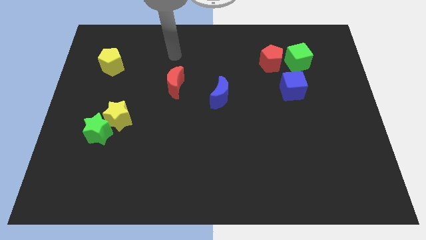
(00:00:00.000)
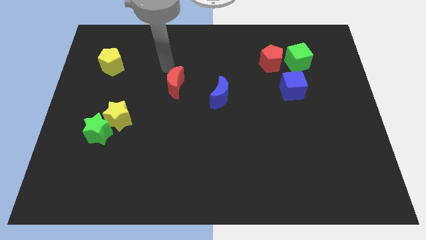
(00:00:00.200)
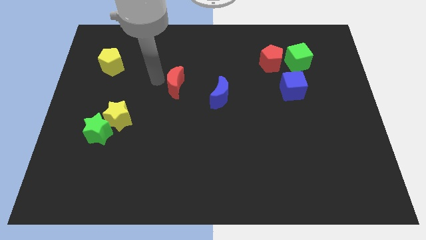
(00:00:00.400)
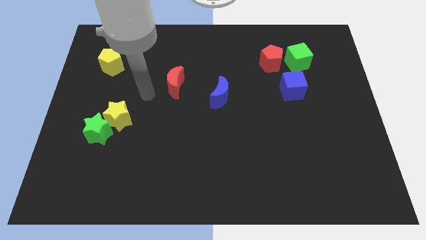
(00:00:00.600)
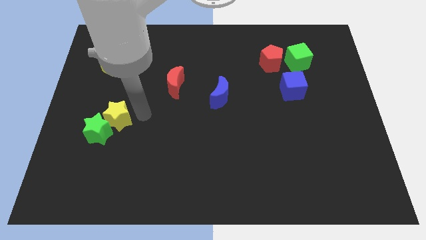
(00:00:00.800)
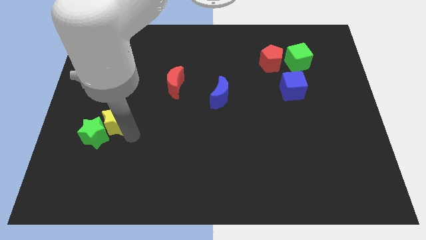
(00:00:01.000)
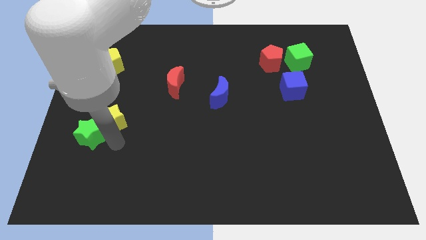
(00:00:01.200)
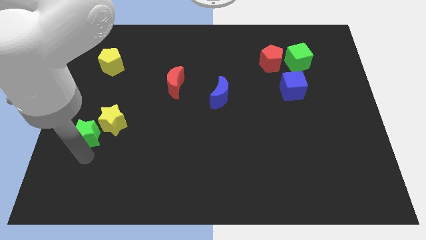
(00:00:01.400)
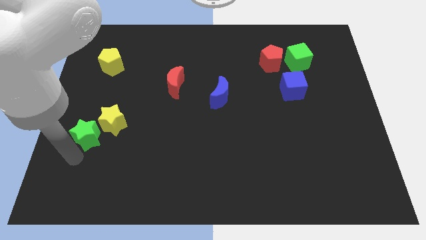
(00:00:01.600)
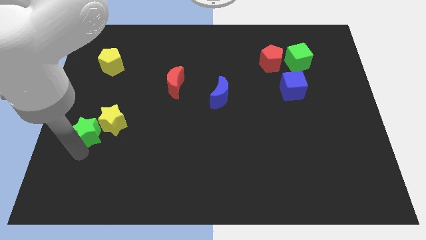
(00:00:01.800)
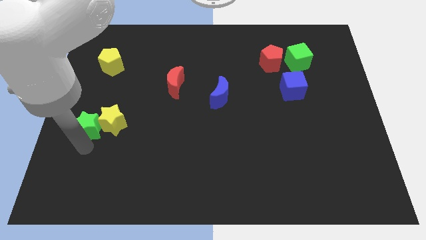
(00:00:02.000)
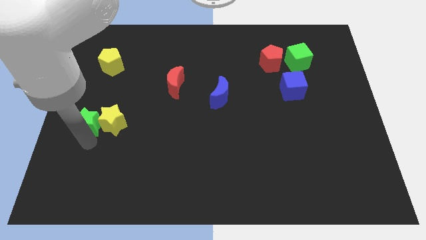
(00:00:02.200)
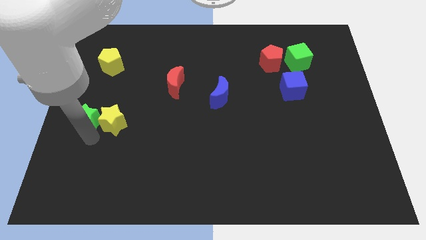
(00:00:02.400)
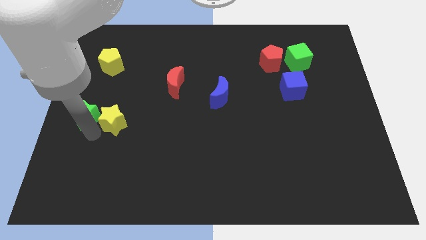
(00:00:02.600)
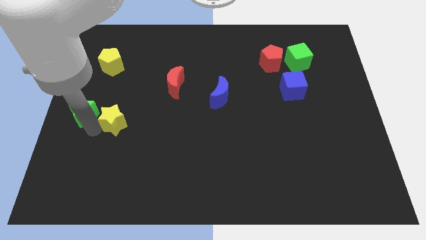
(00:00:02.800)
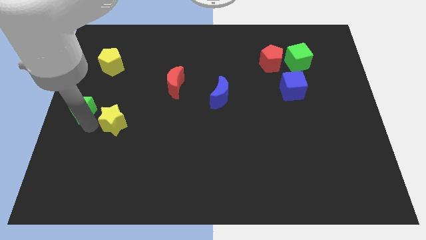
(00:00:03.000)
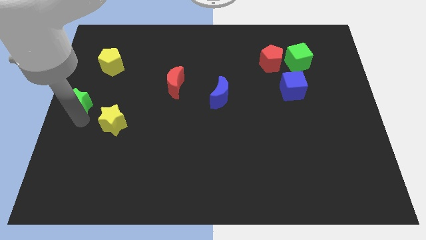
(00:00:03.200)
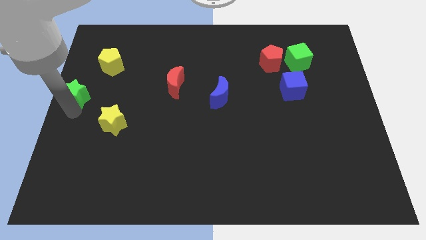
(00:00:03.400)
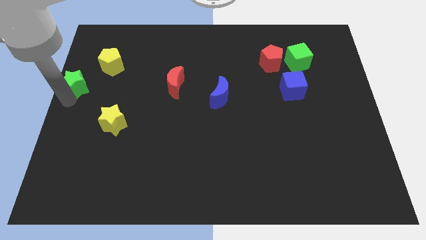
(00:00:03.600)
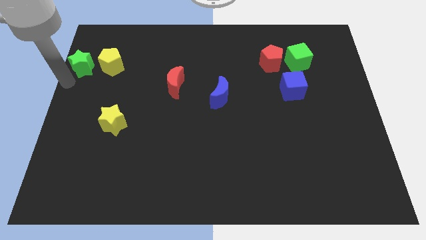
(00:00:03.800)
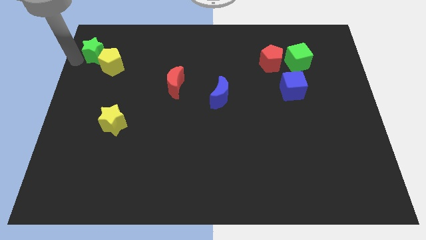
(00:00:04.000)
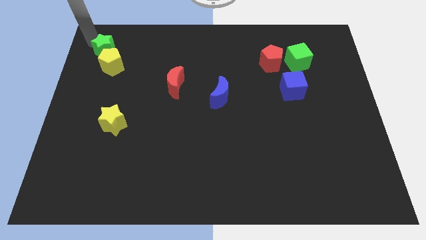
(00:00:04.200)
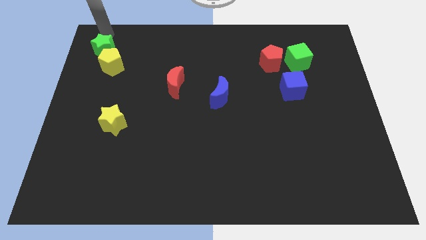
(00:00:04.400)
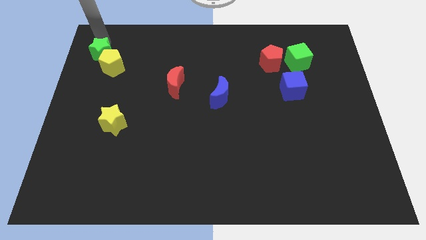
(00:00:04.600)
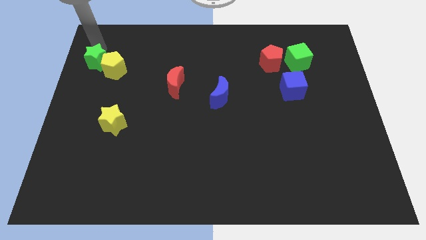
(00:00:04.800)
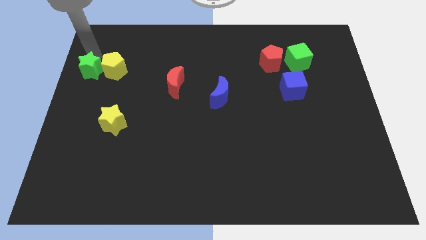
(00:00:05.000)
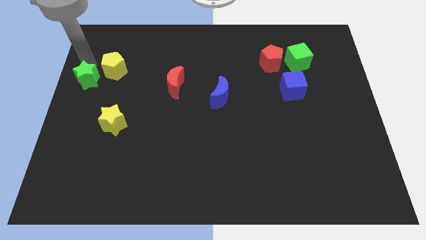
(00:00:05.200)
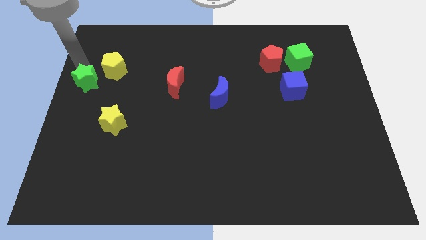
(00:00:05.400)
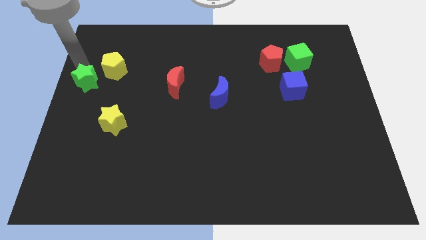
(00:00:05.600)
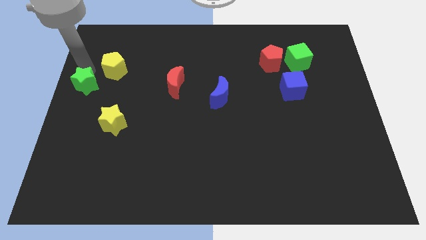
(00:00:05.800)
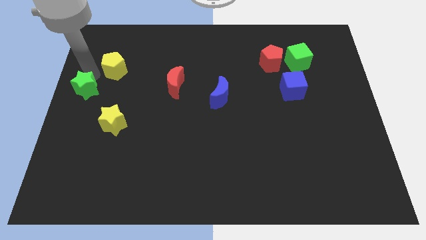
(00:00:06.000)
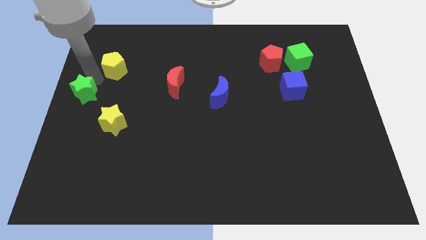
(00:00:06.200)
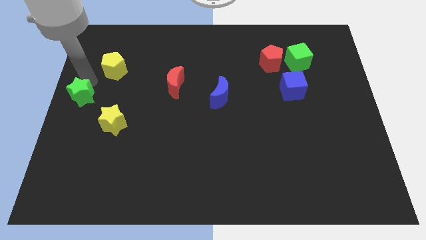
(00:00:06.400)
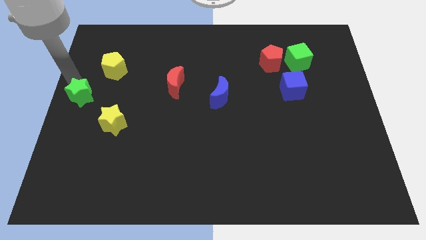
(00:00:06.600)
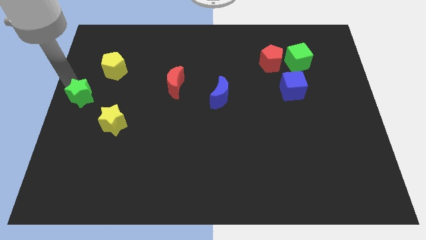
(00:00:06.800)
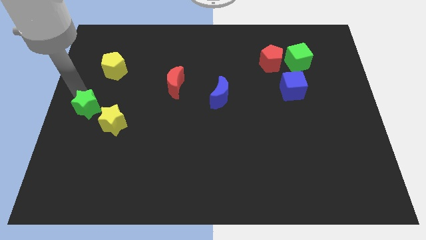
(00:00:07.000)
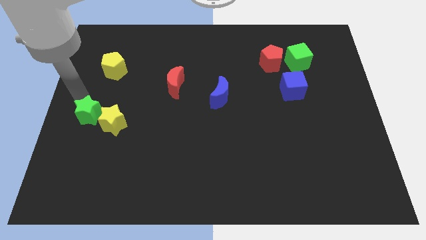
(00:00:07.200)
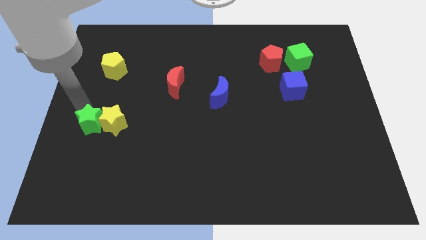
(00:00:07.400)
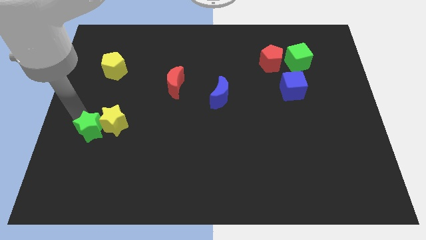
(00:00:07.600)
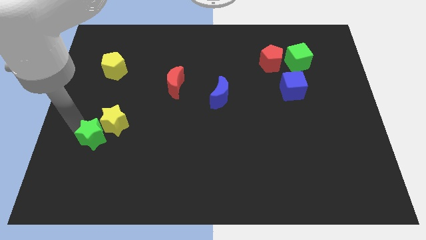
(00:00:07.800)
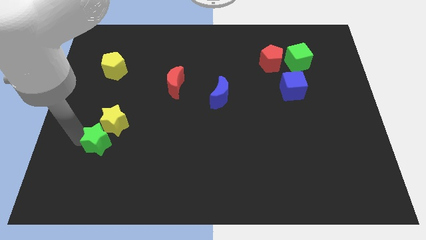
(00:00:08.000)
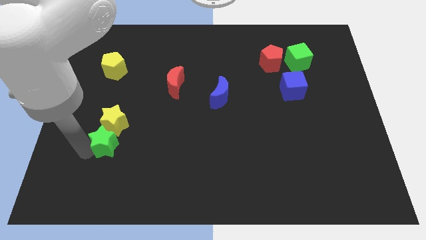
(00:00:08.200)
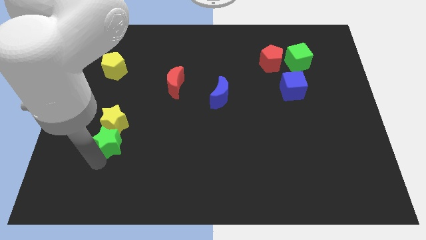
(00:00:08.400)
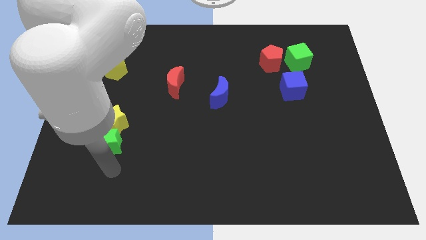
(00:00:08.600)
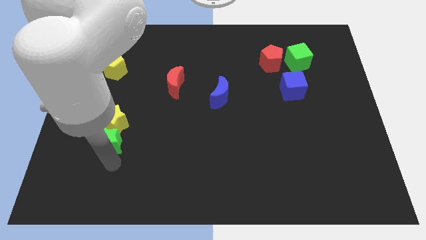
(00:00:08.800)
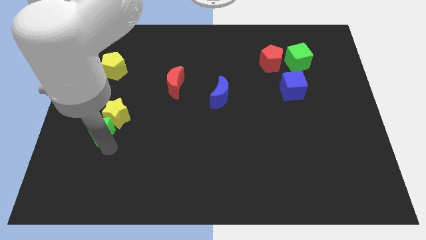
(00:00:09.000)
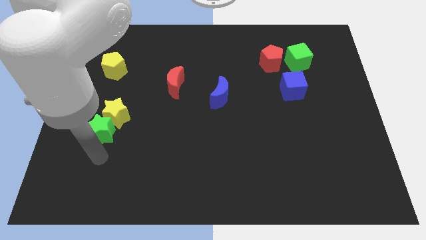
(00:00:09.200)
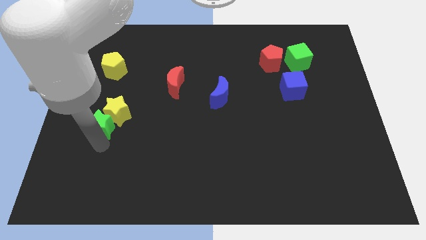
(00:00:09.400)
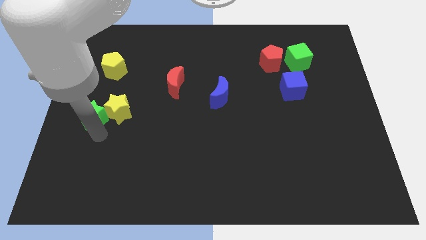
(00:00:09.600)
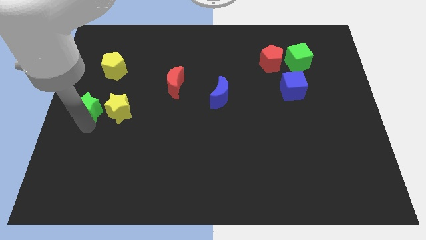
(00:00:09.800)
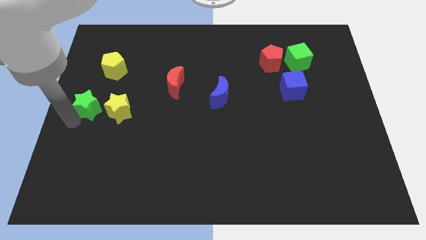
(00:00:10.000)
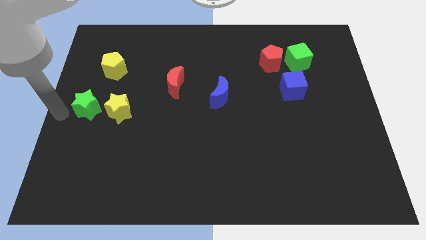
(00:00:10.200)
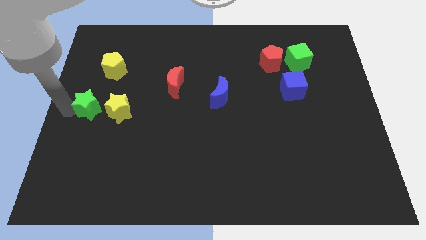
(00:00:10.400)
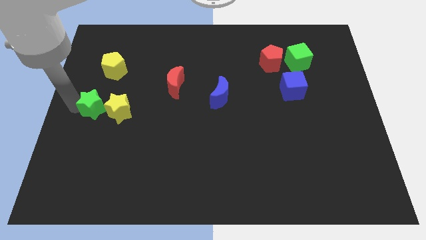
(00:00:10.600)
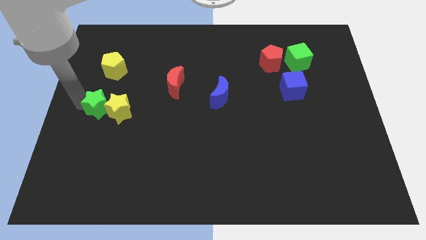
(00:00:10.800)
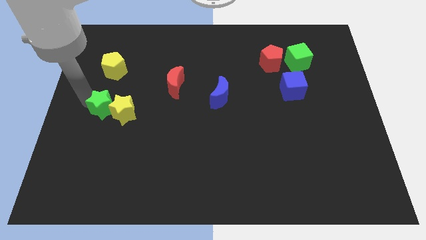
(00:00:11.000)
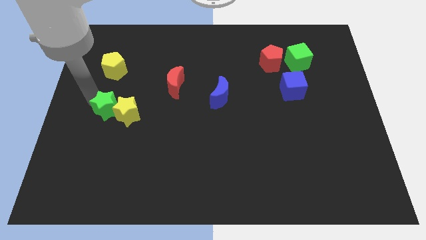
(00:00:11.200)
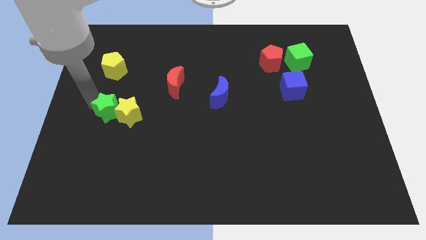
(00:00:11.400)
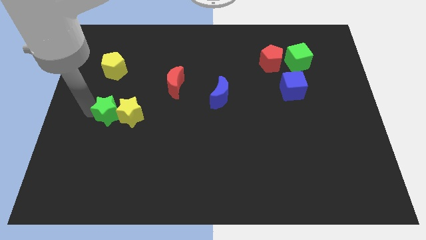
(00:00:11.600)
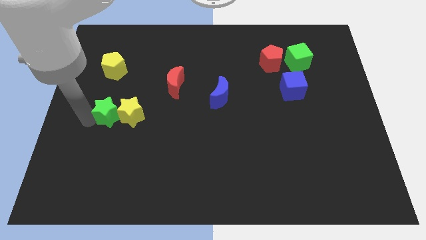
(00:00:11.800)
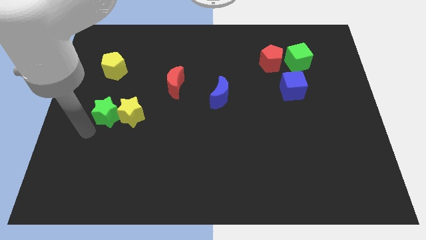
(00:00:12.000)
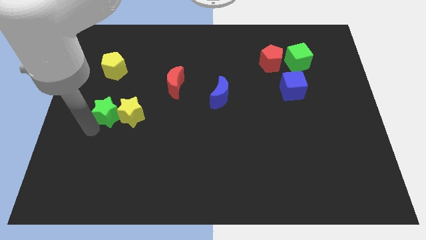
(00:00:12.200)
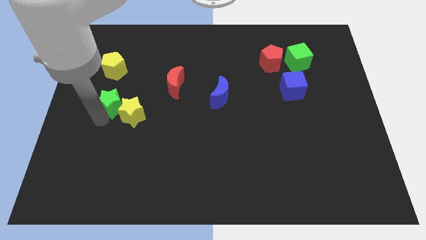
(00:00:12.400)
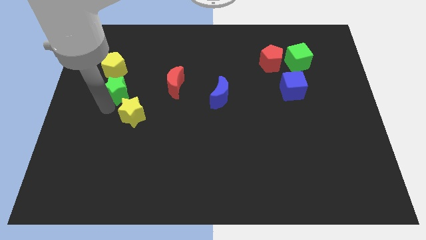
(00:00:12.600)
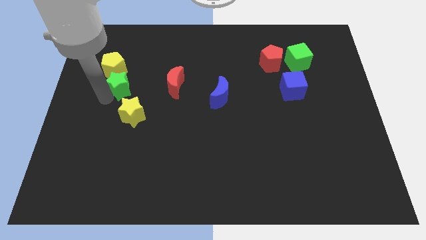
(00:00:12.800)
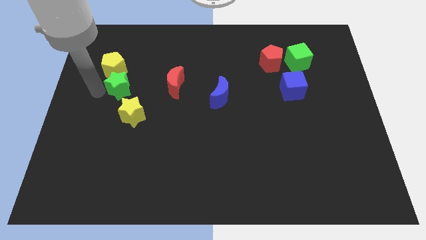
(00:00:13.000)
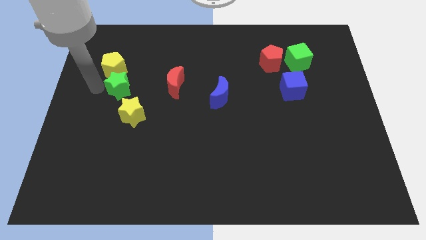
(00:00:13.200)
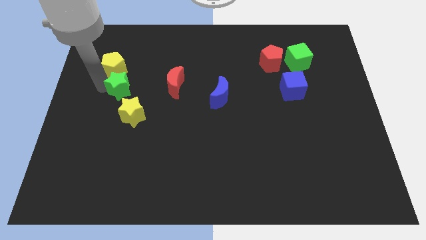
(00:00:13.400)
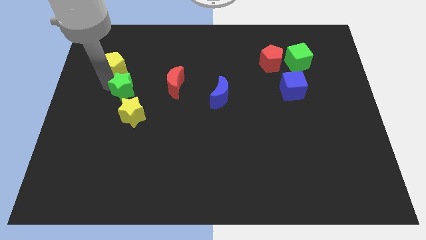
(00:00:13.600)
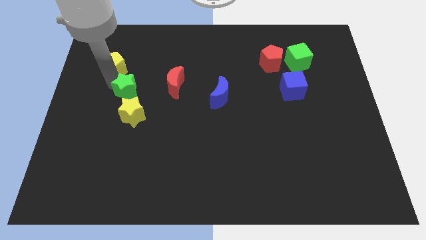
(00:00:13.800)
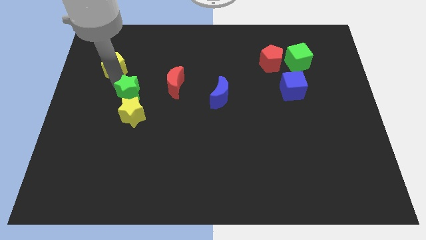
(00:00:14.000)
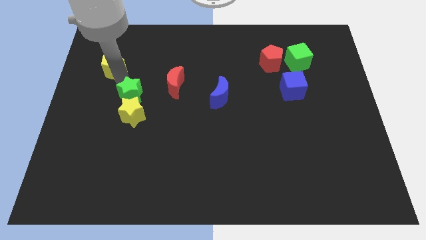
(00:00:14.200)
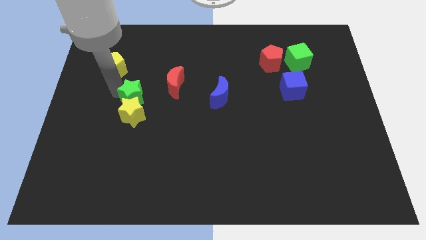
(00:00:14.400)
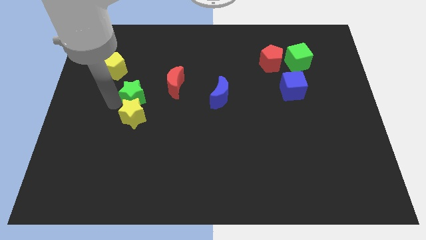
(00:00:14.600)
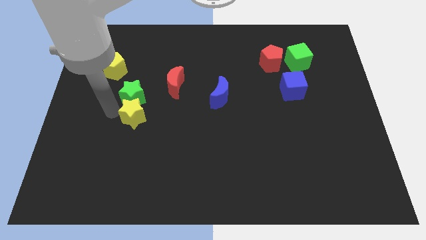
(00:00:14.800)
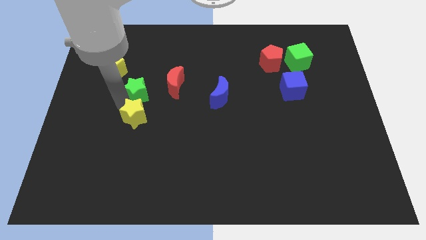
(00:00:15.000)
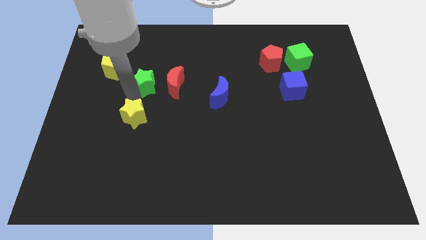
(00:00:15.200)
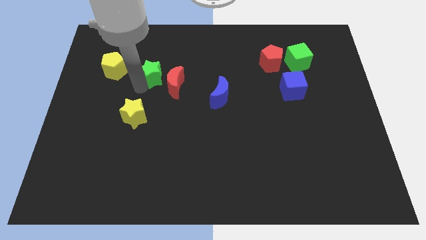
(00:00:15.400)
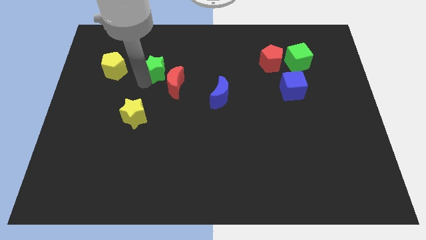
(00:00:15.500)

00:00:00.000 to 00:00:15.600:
slide the green star upwards and right

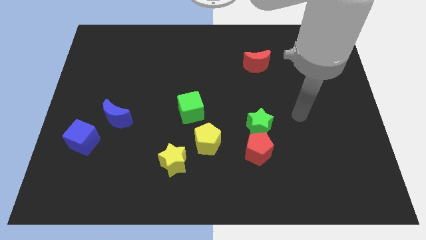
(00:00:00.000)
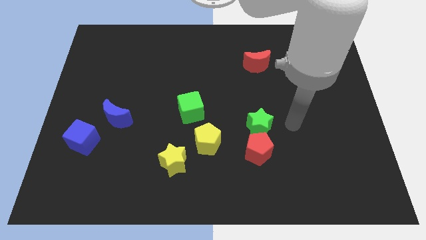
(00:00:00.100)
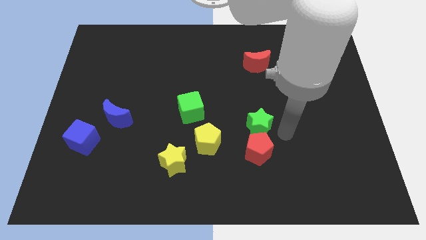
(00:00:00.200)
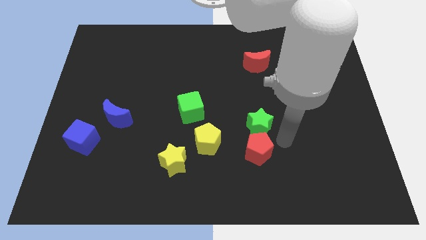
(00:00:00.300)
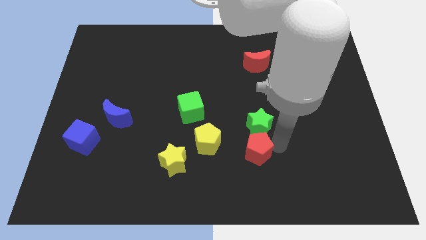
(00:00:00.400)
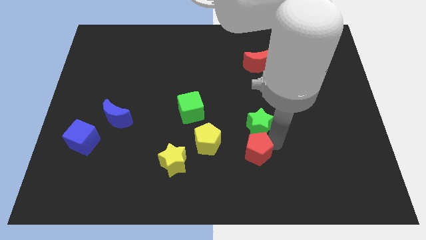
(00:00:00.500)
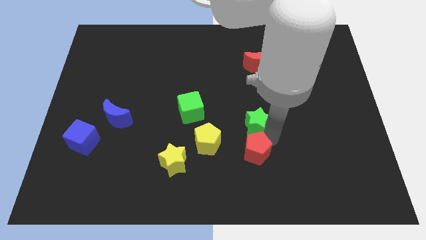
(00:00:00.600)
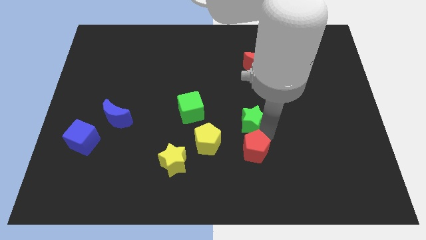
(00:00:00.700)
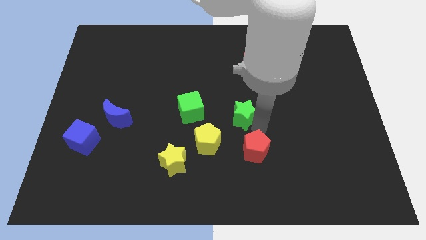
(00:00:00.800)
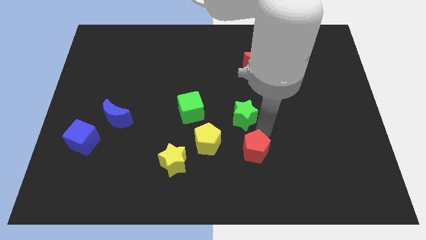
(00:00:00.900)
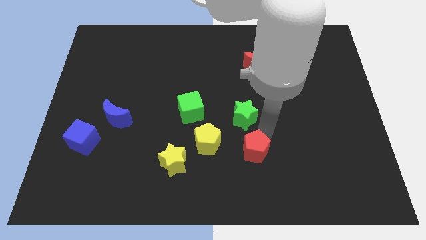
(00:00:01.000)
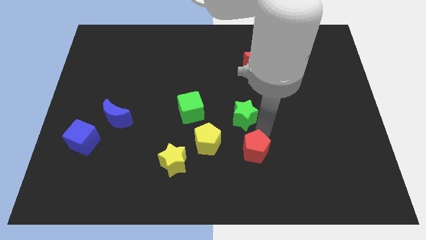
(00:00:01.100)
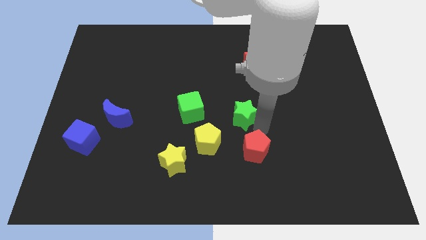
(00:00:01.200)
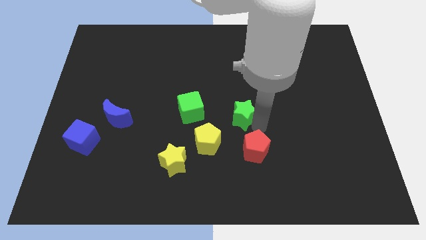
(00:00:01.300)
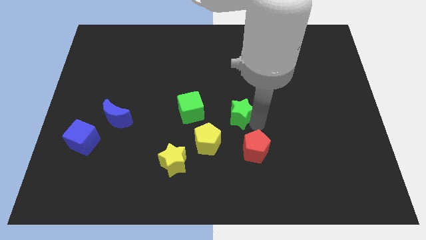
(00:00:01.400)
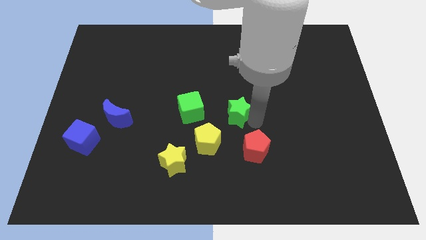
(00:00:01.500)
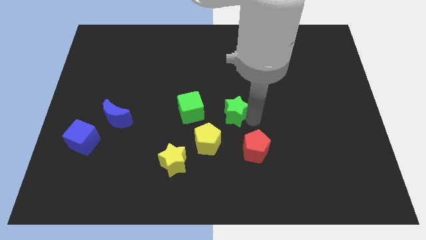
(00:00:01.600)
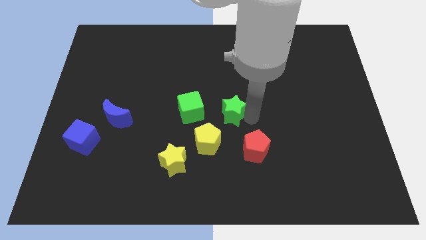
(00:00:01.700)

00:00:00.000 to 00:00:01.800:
slightly move the green star upwards and to the left
